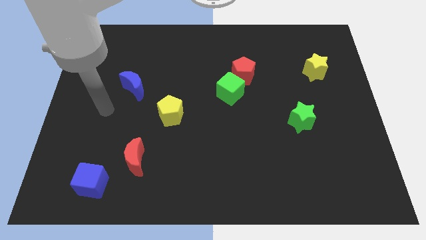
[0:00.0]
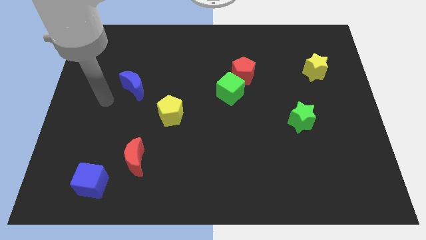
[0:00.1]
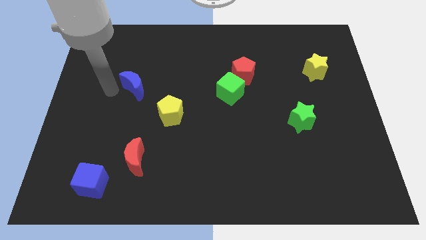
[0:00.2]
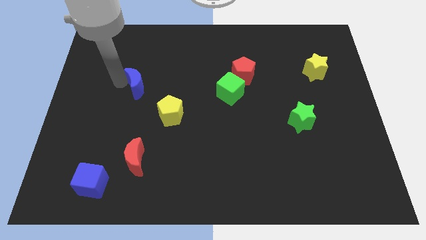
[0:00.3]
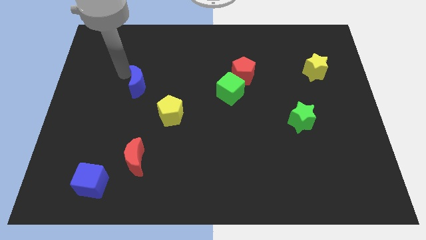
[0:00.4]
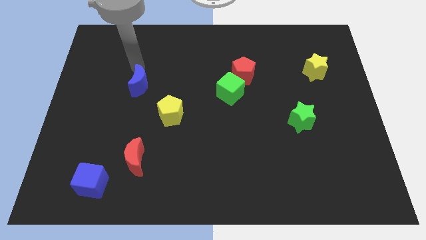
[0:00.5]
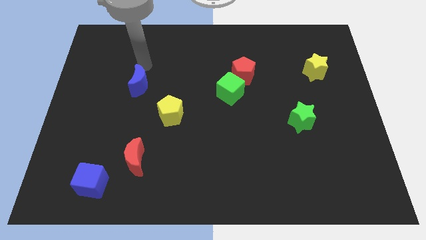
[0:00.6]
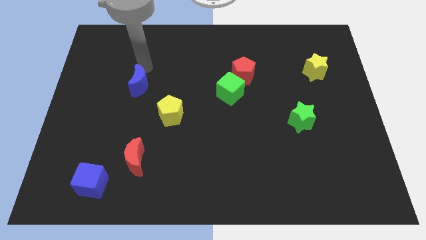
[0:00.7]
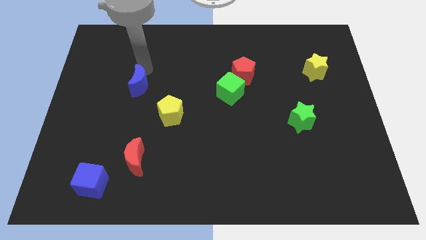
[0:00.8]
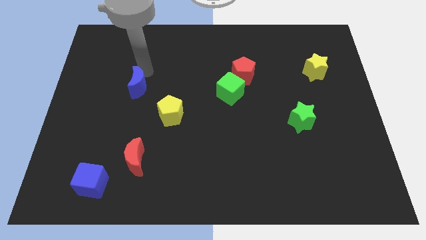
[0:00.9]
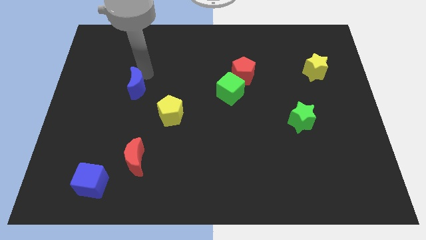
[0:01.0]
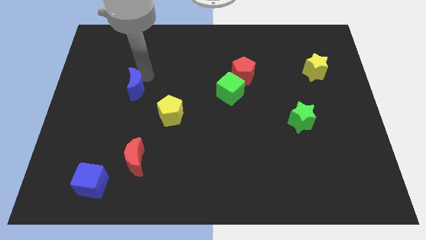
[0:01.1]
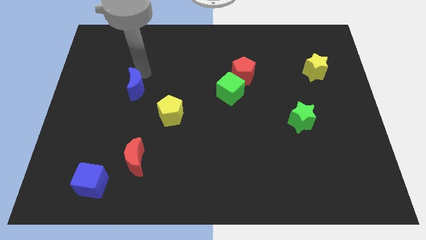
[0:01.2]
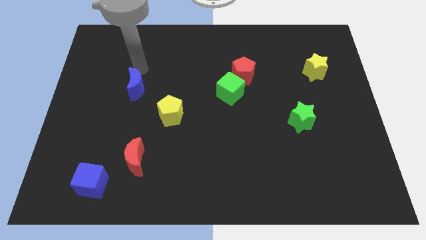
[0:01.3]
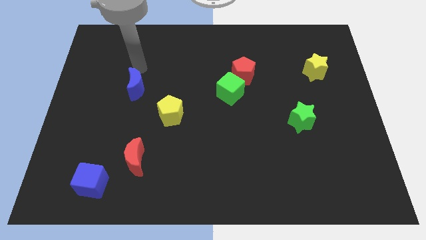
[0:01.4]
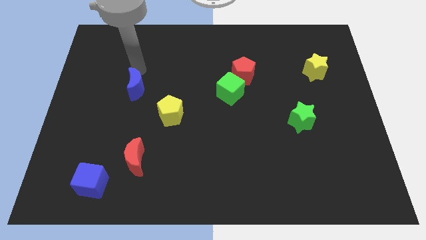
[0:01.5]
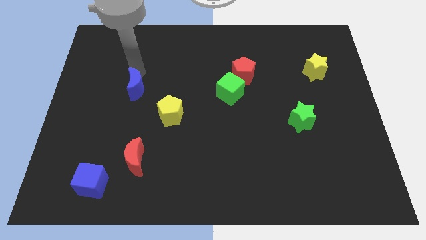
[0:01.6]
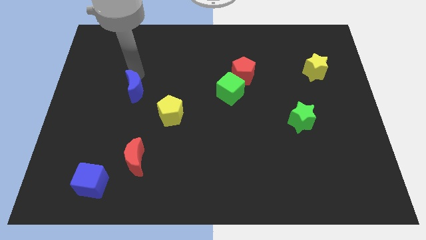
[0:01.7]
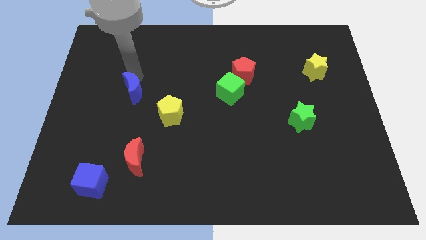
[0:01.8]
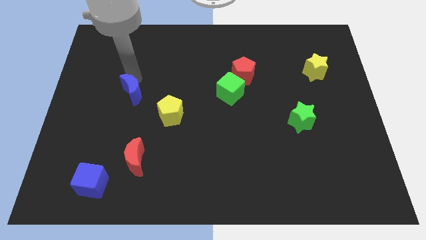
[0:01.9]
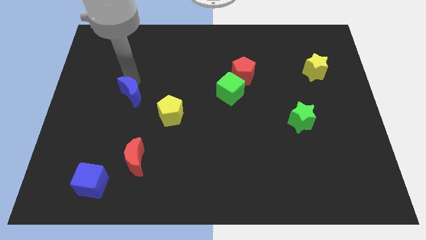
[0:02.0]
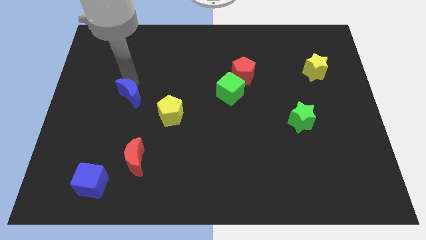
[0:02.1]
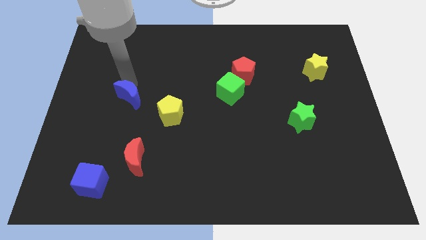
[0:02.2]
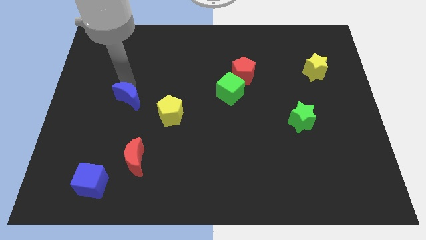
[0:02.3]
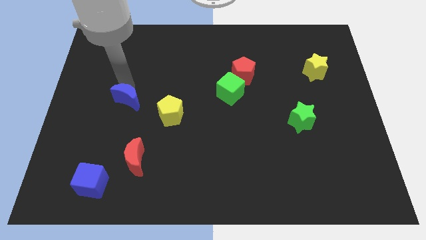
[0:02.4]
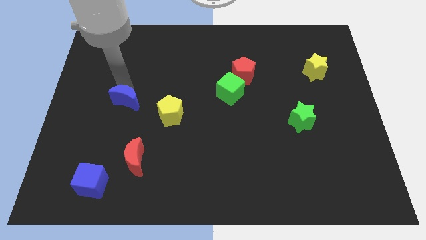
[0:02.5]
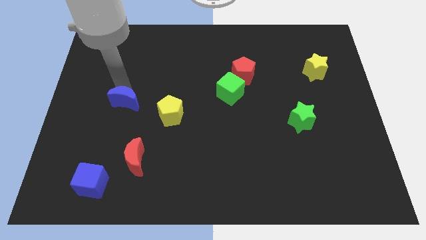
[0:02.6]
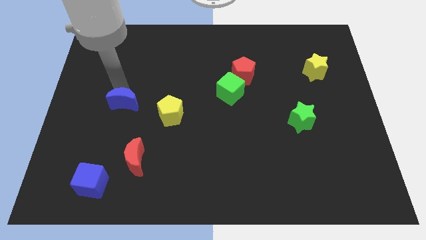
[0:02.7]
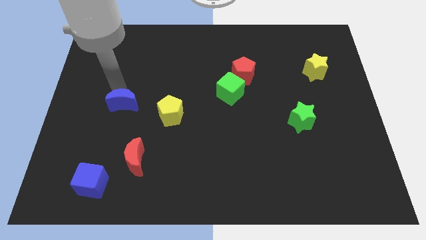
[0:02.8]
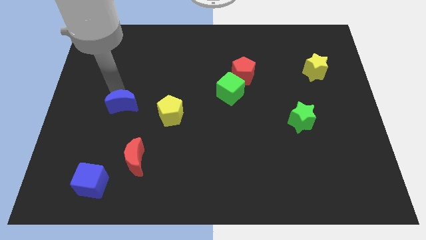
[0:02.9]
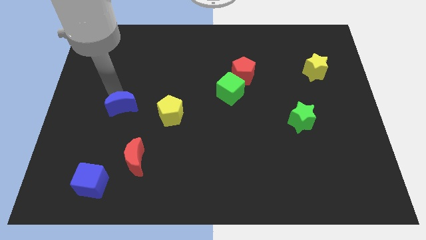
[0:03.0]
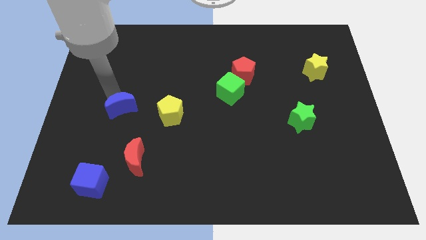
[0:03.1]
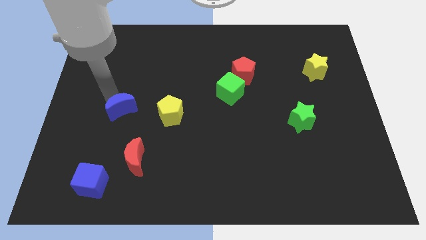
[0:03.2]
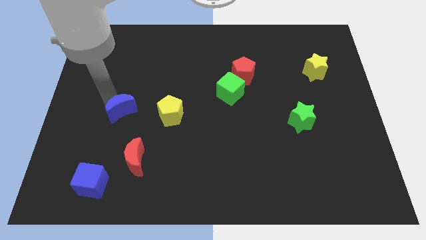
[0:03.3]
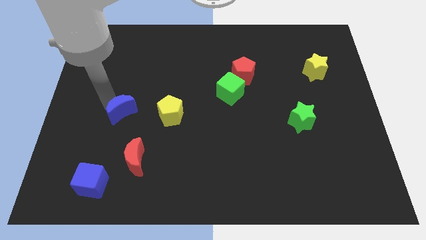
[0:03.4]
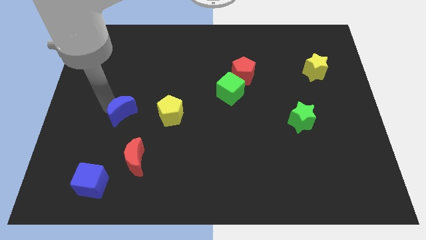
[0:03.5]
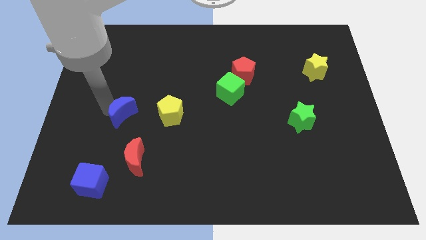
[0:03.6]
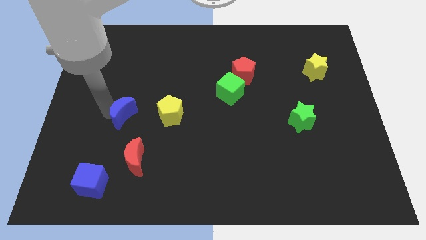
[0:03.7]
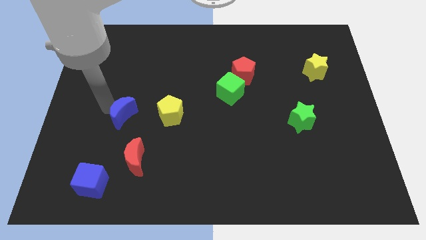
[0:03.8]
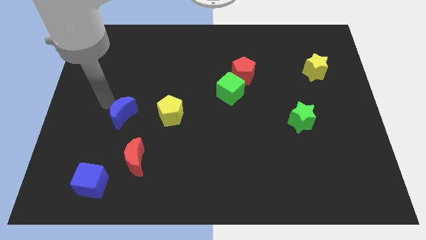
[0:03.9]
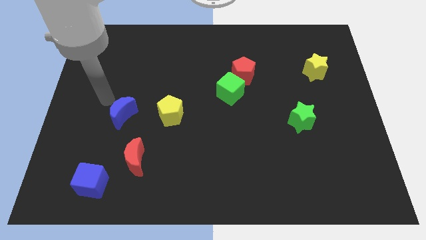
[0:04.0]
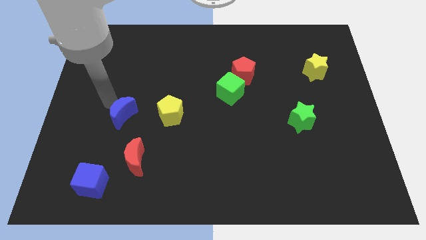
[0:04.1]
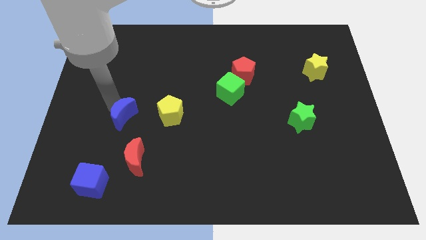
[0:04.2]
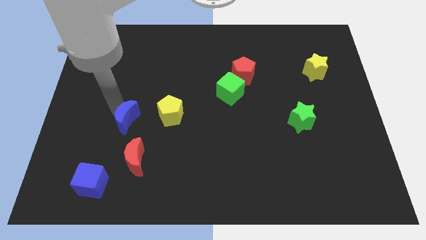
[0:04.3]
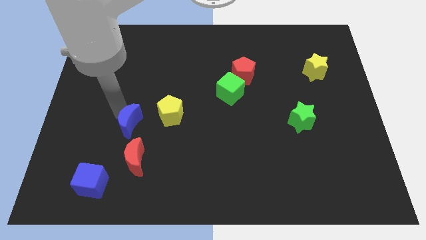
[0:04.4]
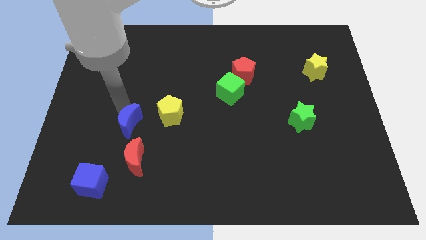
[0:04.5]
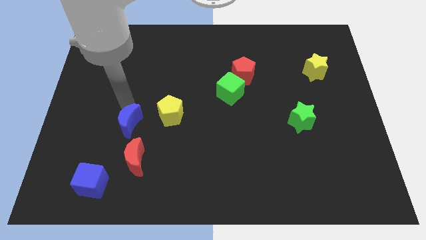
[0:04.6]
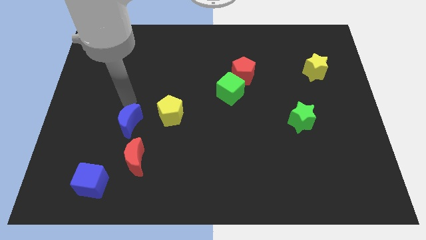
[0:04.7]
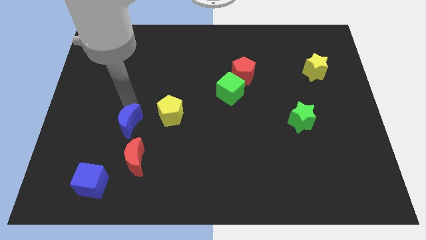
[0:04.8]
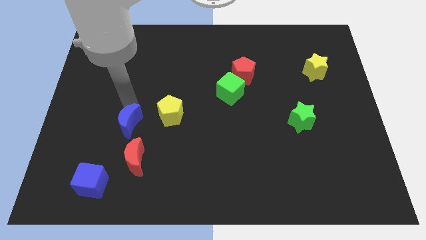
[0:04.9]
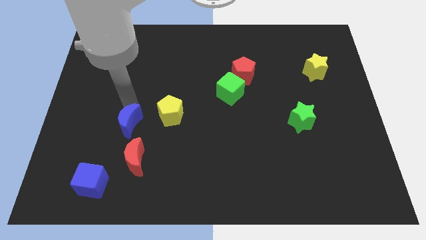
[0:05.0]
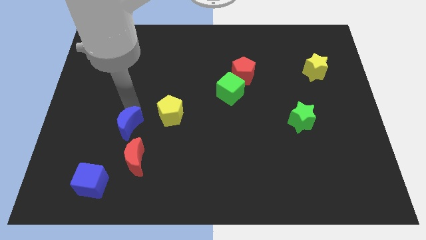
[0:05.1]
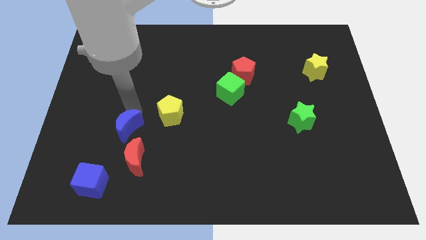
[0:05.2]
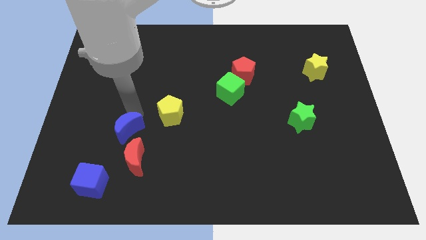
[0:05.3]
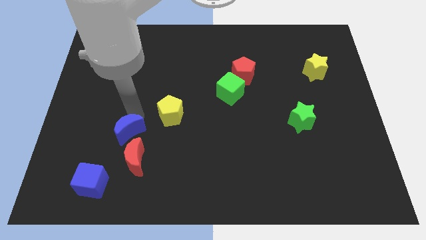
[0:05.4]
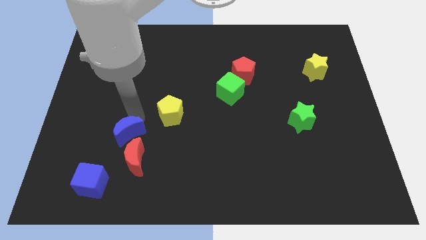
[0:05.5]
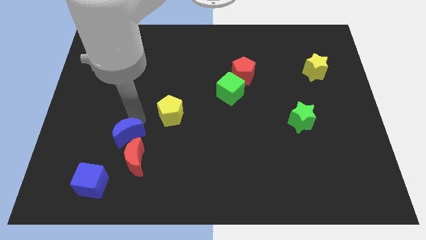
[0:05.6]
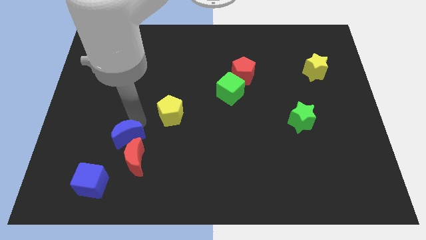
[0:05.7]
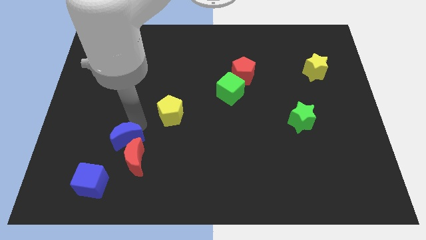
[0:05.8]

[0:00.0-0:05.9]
slide the blue moon to the red moon

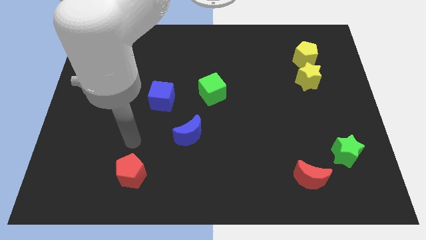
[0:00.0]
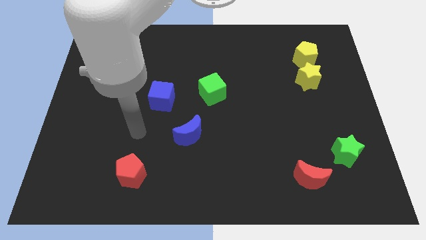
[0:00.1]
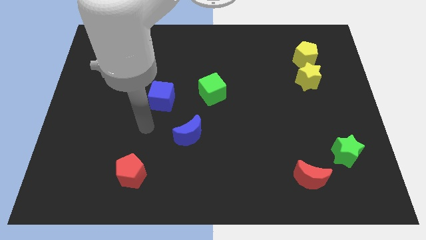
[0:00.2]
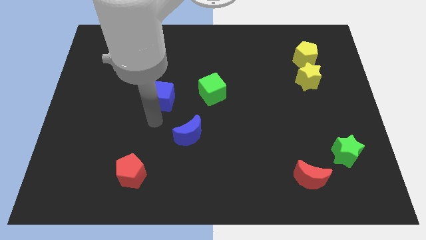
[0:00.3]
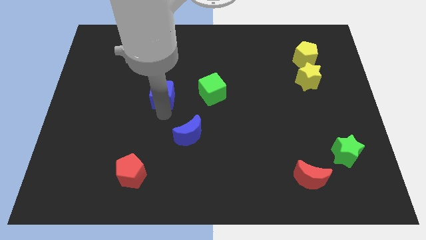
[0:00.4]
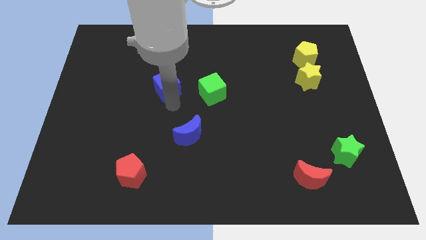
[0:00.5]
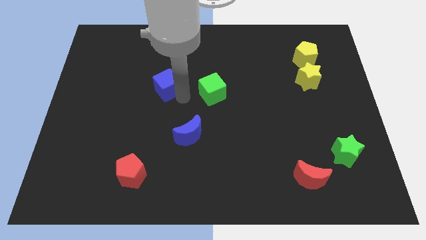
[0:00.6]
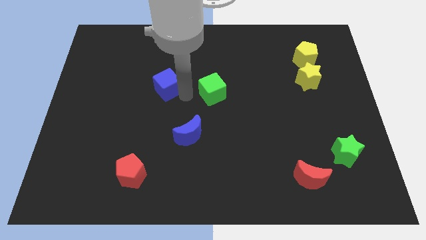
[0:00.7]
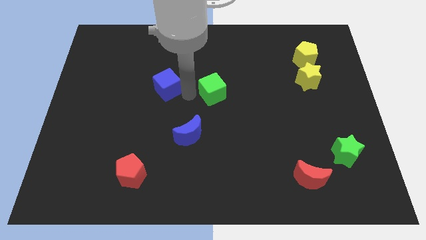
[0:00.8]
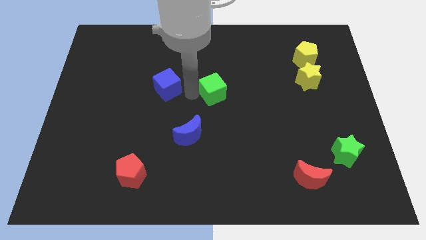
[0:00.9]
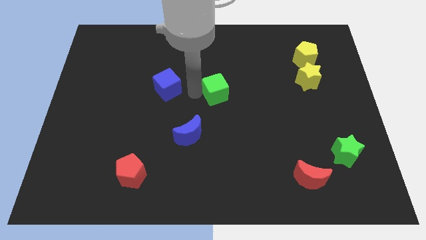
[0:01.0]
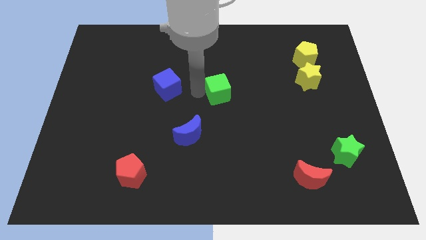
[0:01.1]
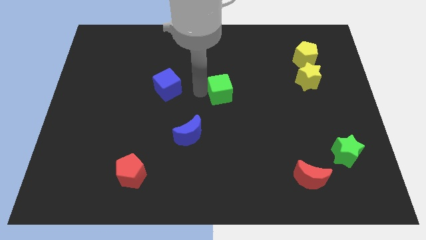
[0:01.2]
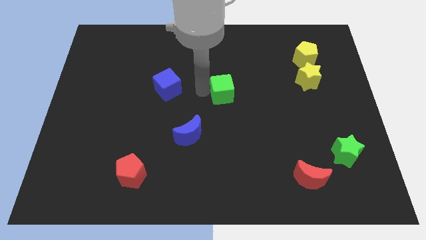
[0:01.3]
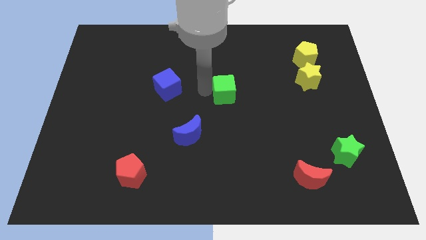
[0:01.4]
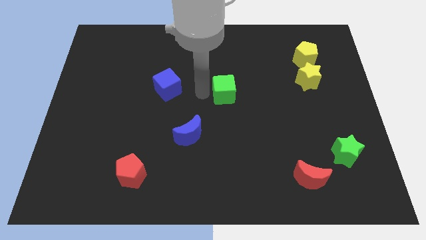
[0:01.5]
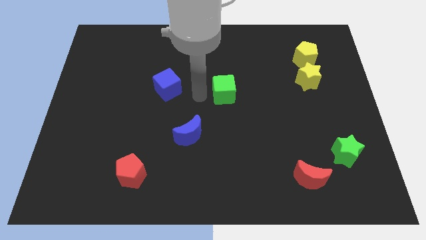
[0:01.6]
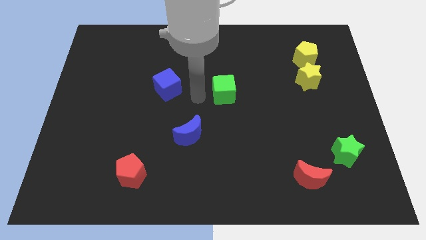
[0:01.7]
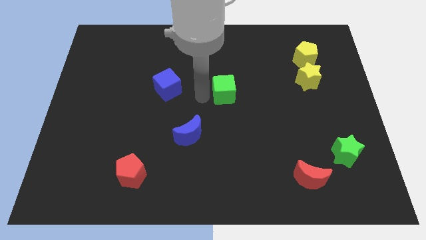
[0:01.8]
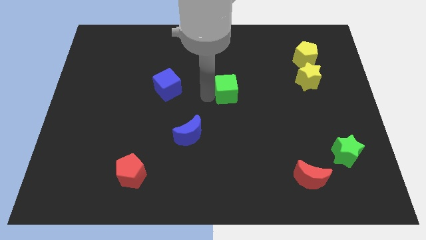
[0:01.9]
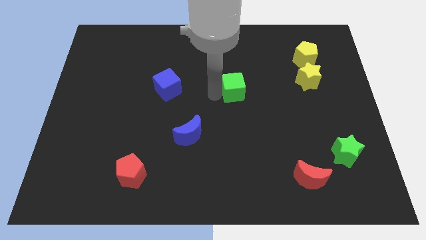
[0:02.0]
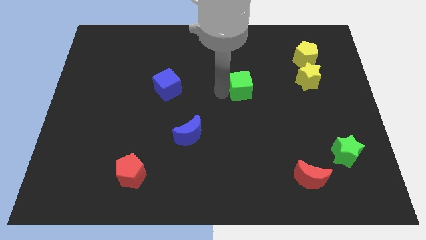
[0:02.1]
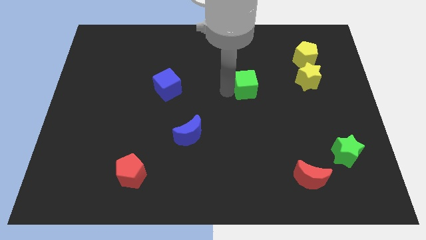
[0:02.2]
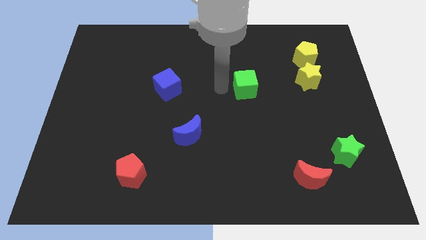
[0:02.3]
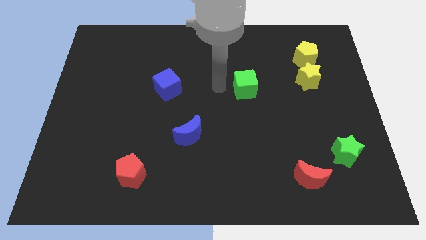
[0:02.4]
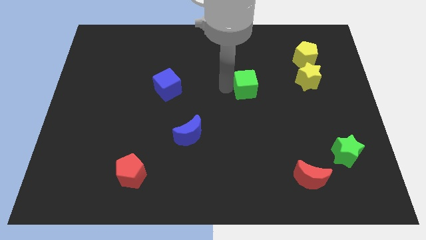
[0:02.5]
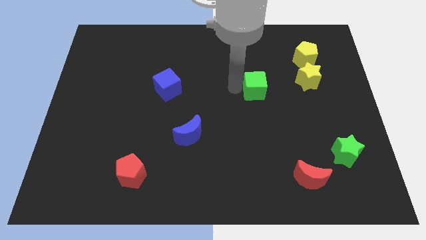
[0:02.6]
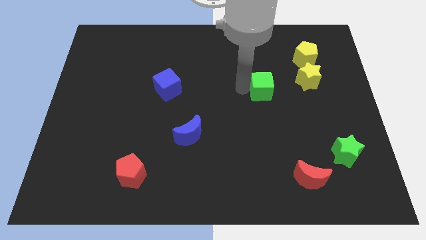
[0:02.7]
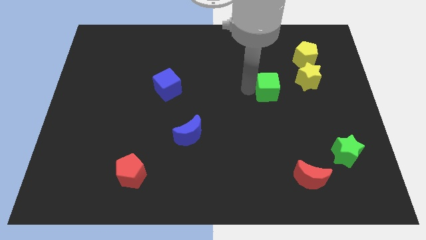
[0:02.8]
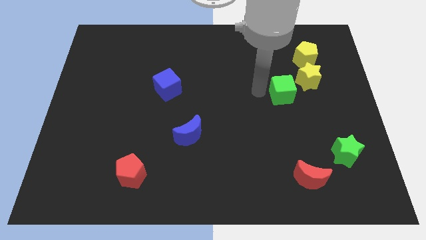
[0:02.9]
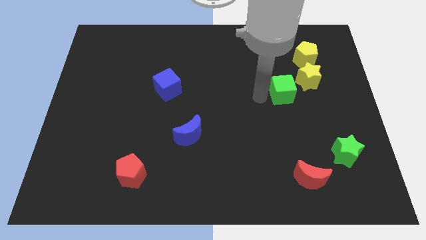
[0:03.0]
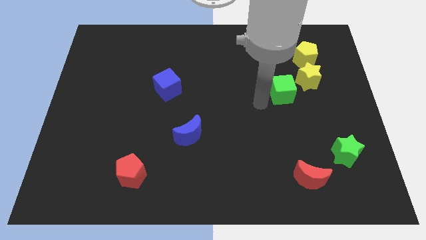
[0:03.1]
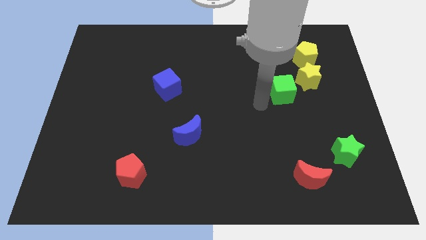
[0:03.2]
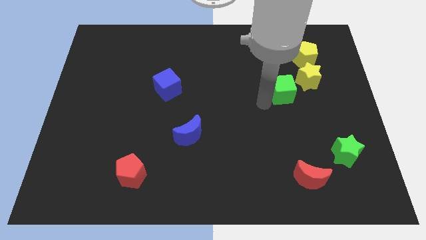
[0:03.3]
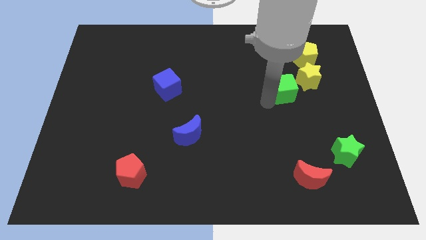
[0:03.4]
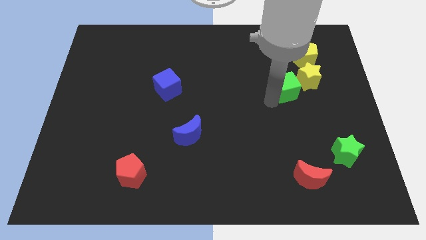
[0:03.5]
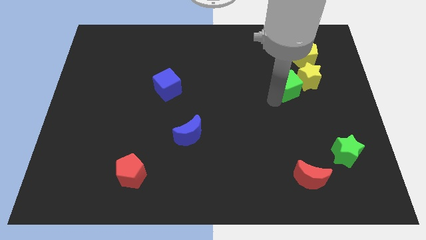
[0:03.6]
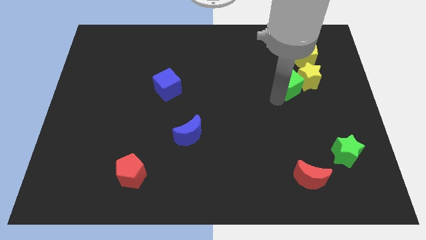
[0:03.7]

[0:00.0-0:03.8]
put the green cube close to the yellow star
